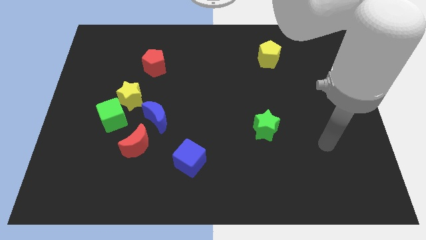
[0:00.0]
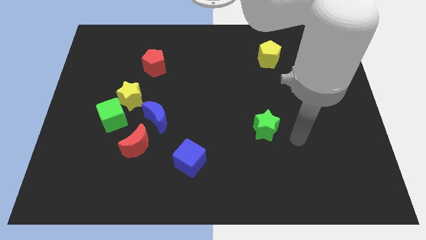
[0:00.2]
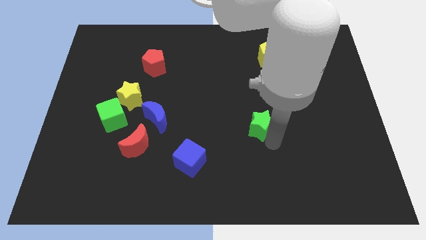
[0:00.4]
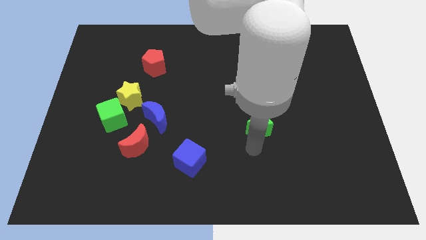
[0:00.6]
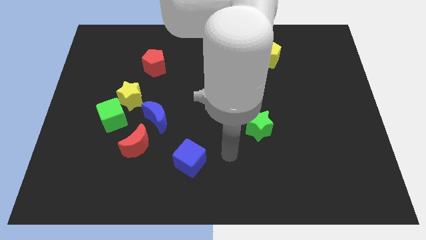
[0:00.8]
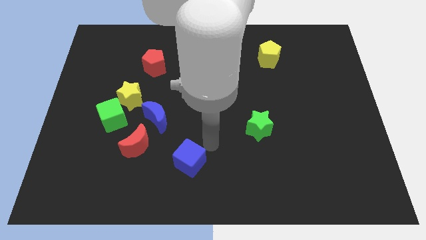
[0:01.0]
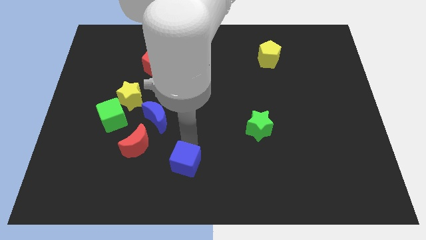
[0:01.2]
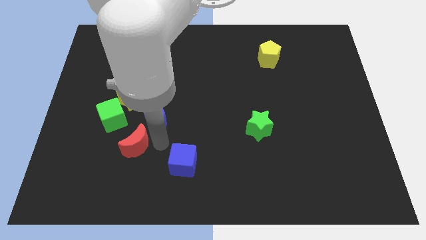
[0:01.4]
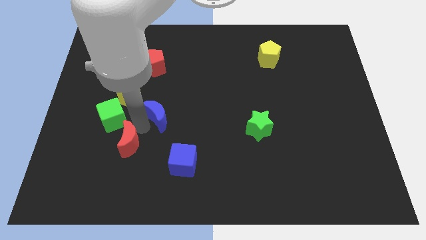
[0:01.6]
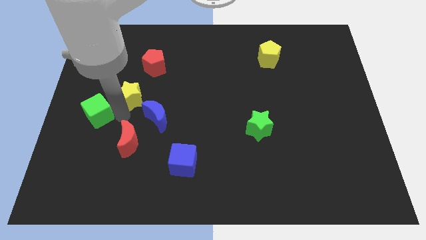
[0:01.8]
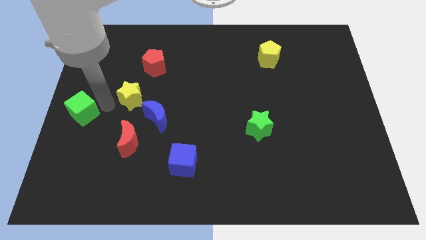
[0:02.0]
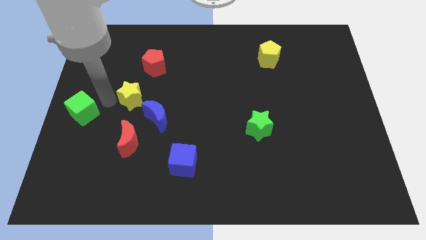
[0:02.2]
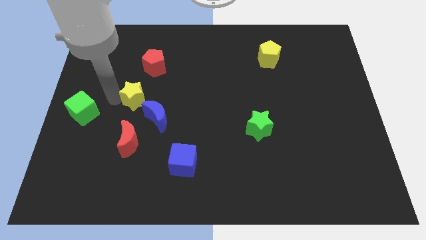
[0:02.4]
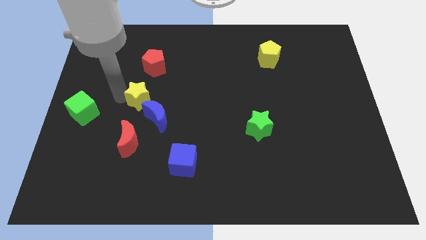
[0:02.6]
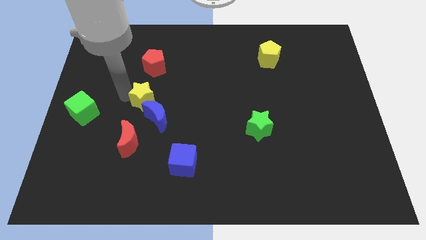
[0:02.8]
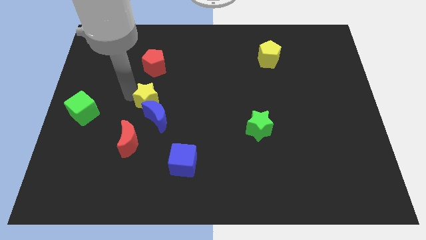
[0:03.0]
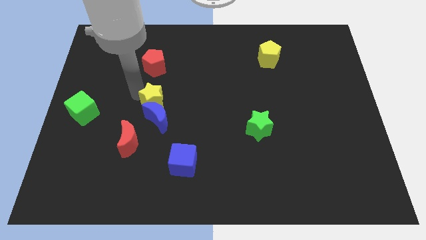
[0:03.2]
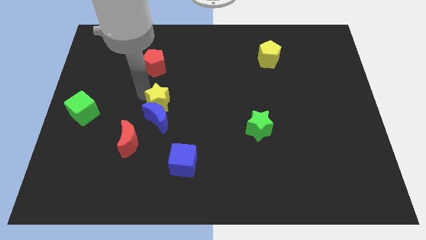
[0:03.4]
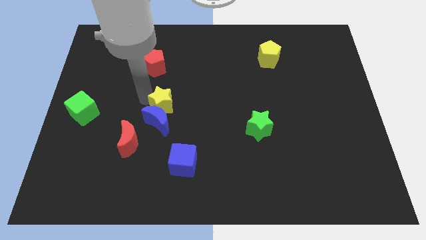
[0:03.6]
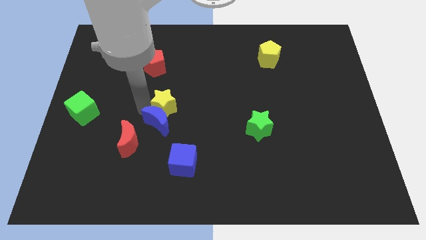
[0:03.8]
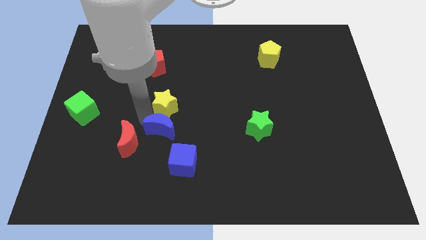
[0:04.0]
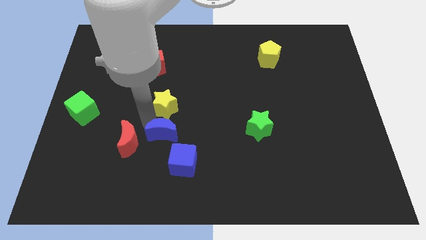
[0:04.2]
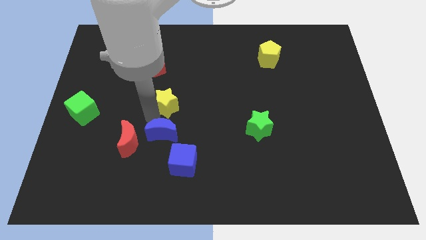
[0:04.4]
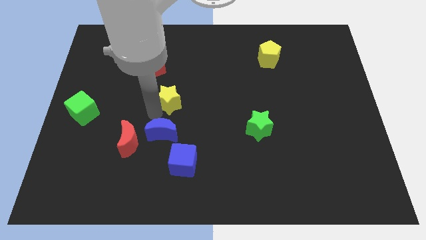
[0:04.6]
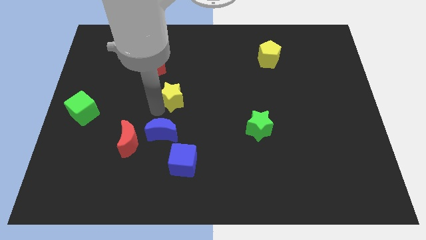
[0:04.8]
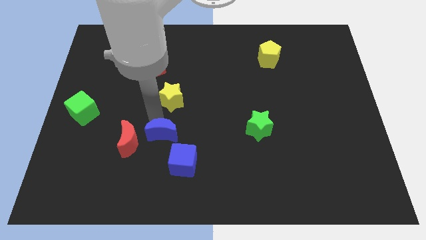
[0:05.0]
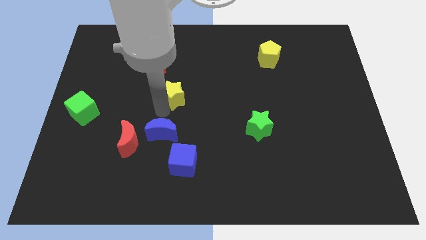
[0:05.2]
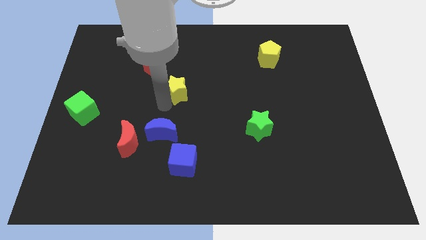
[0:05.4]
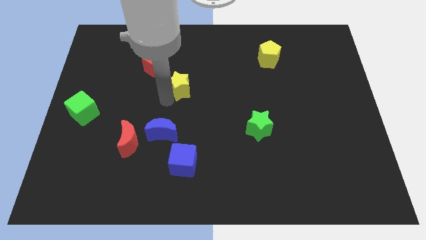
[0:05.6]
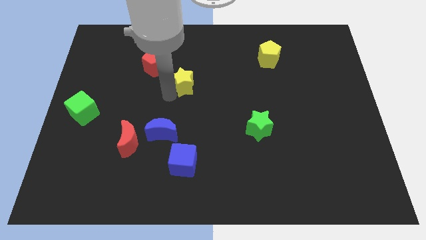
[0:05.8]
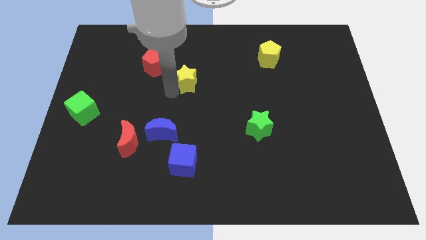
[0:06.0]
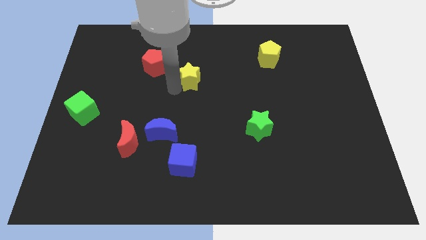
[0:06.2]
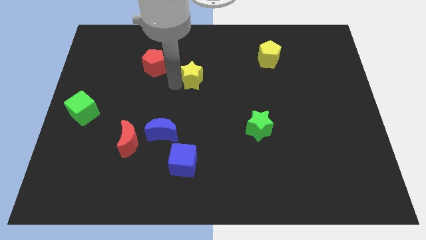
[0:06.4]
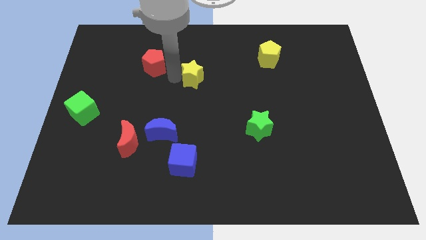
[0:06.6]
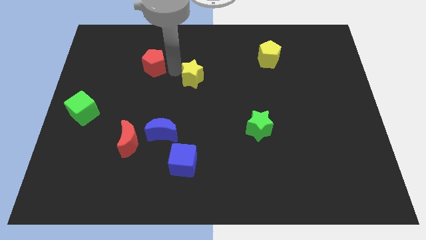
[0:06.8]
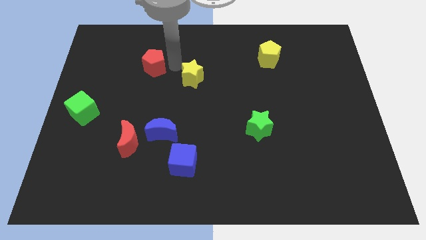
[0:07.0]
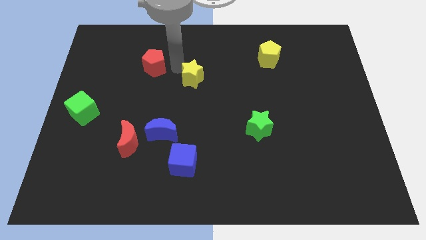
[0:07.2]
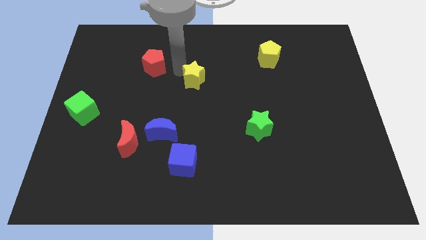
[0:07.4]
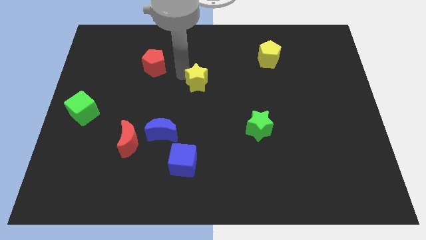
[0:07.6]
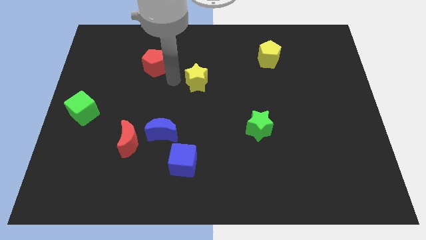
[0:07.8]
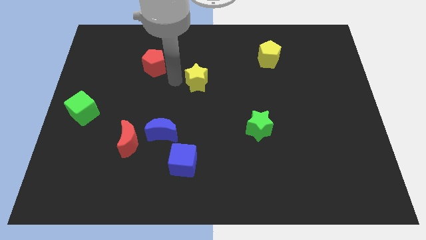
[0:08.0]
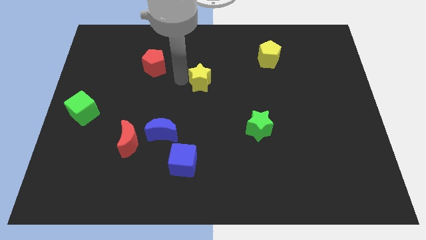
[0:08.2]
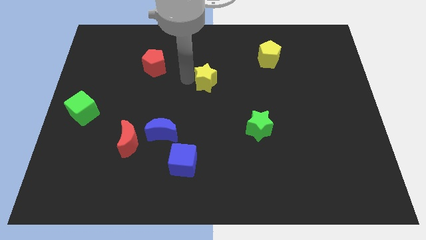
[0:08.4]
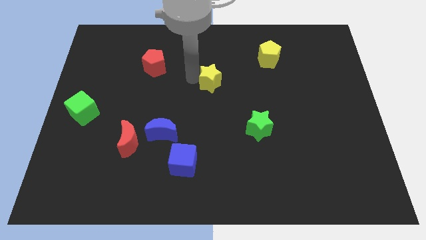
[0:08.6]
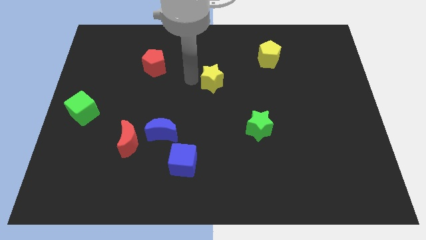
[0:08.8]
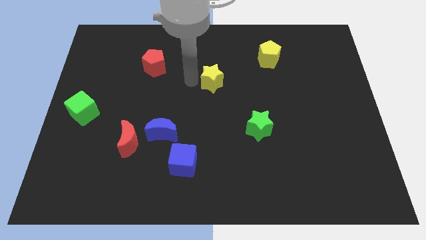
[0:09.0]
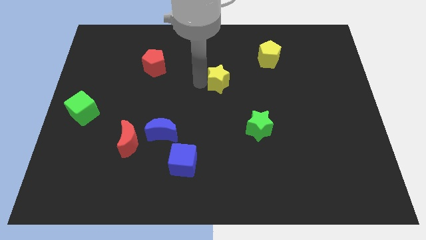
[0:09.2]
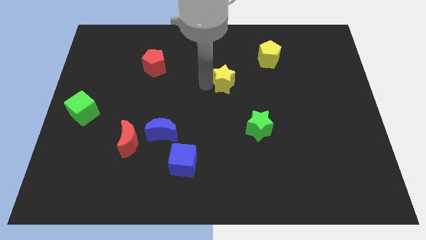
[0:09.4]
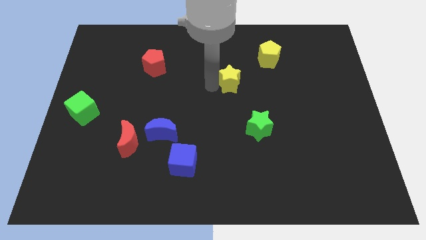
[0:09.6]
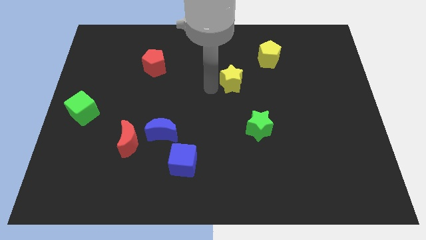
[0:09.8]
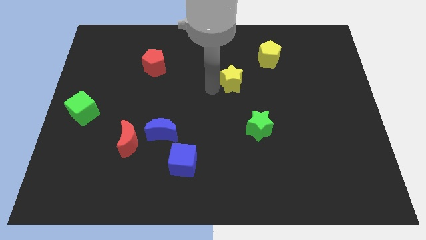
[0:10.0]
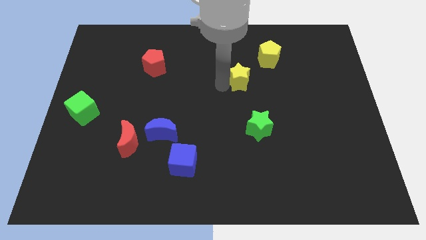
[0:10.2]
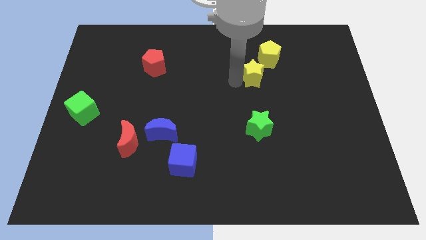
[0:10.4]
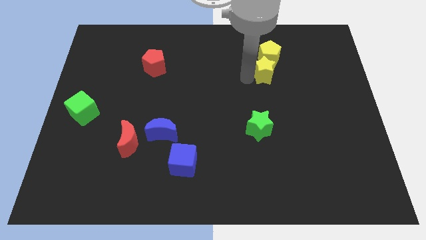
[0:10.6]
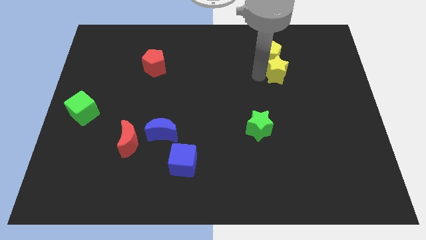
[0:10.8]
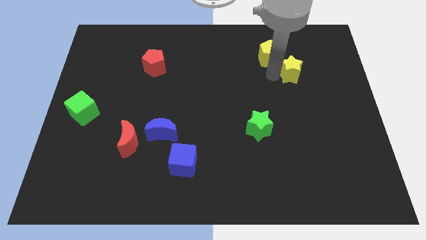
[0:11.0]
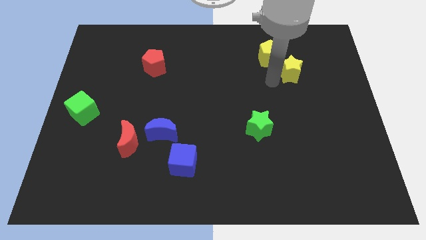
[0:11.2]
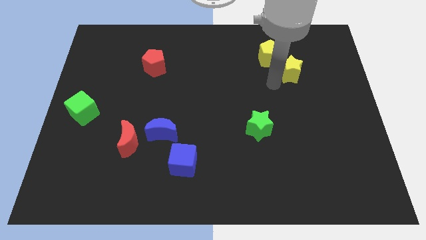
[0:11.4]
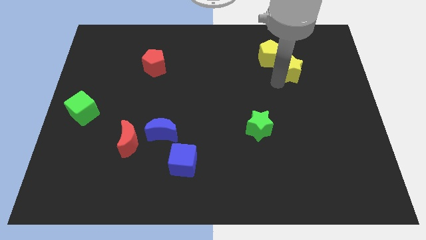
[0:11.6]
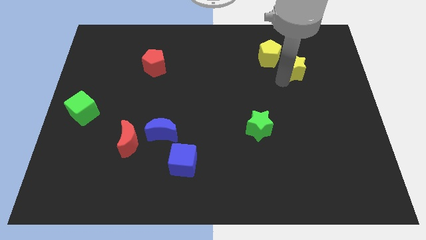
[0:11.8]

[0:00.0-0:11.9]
push the yellow star to the right of the yellow pentagon

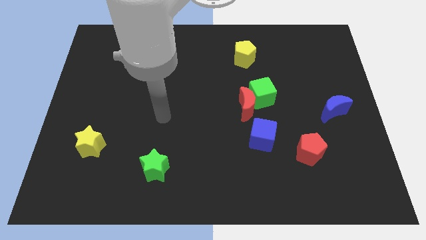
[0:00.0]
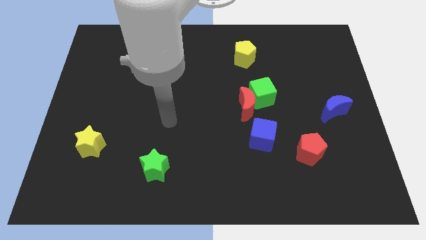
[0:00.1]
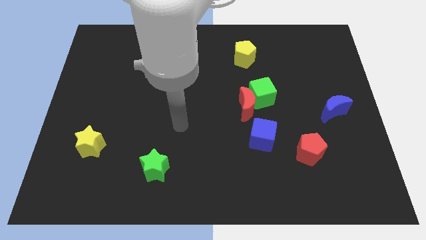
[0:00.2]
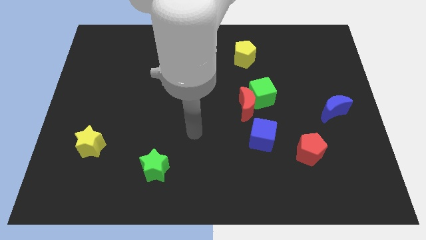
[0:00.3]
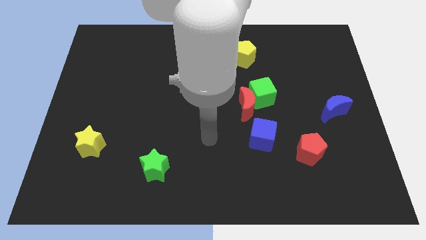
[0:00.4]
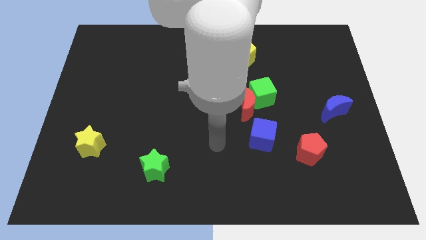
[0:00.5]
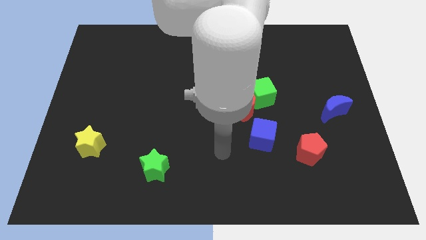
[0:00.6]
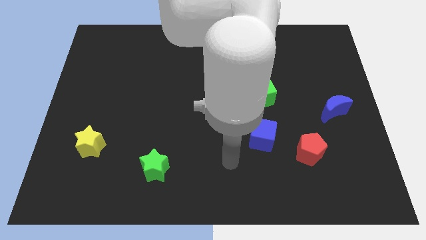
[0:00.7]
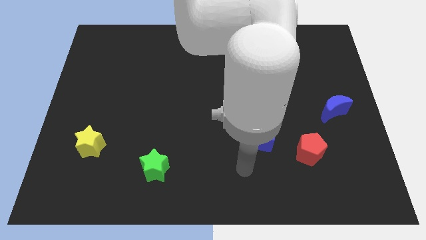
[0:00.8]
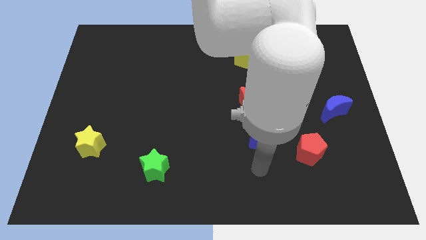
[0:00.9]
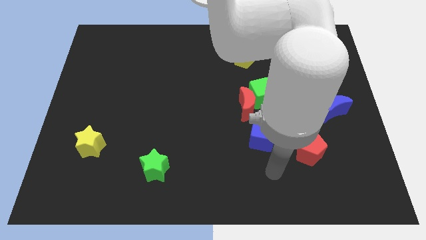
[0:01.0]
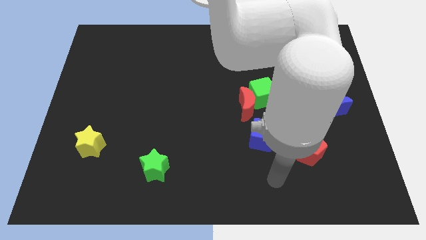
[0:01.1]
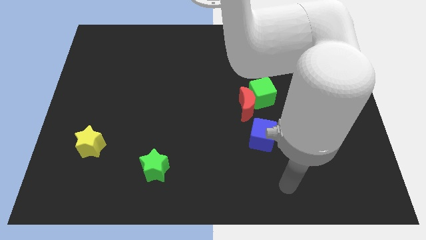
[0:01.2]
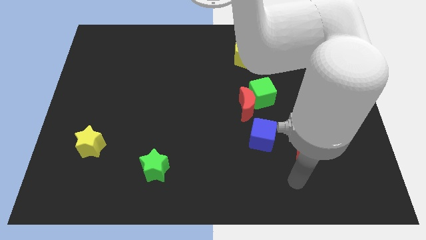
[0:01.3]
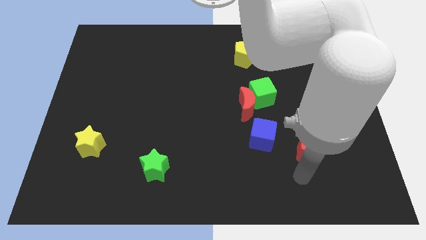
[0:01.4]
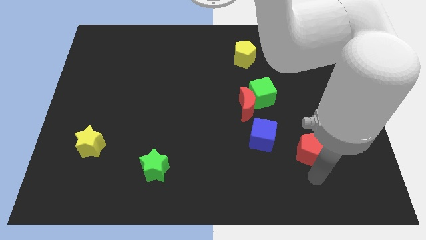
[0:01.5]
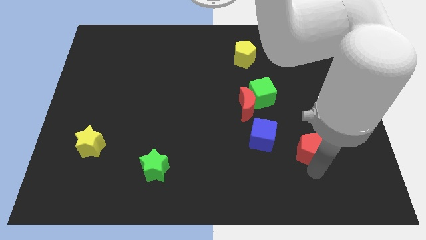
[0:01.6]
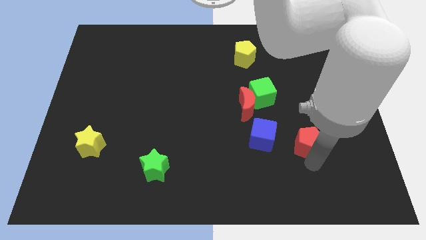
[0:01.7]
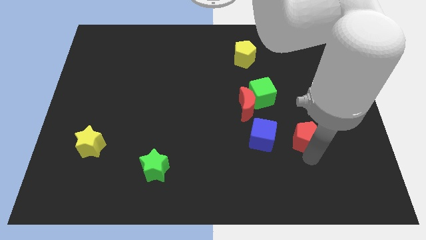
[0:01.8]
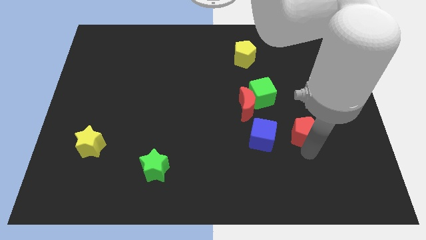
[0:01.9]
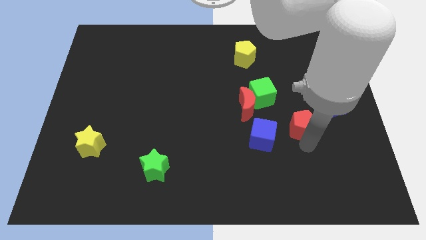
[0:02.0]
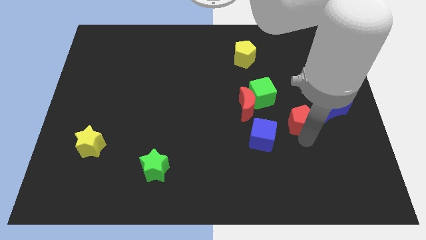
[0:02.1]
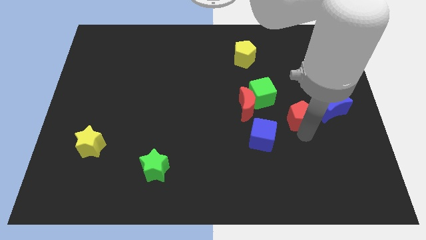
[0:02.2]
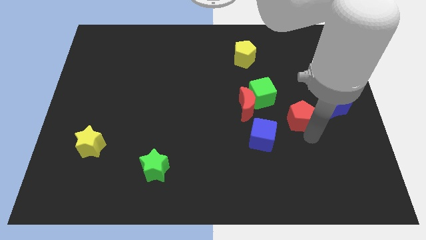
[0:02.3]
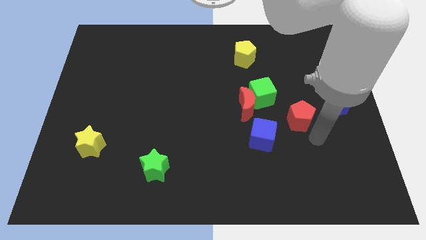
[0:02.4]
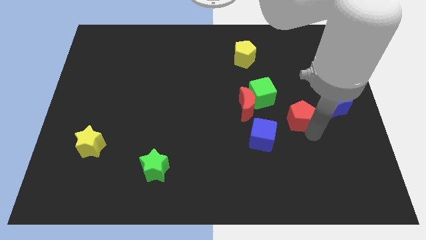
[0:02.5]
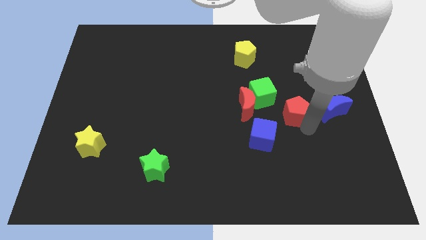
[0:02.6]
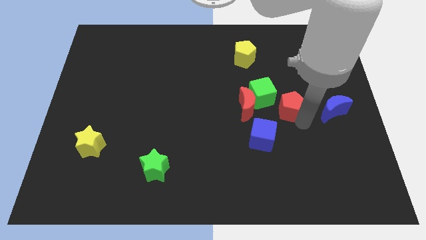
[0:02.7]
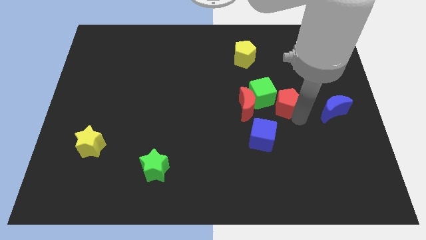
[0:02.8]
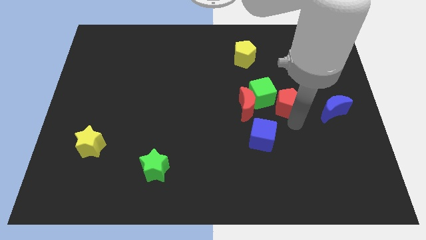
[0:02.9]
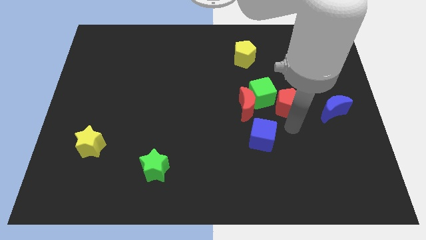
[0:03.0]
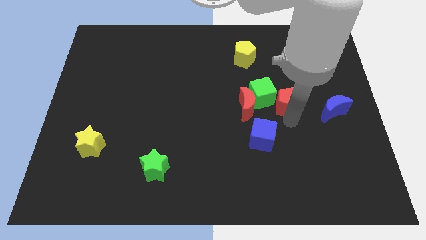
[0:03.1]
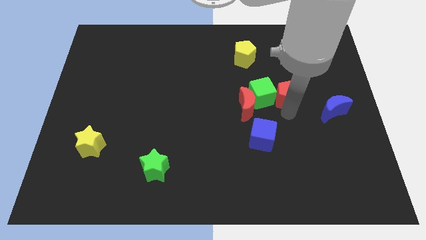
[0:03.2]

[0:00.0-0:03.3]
put the red pentagon diagonally up and to the right of the green cube
